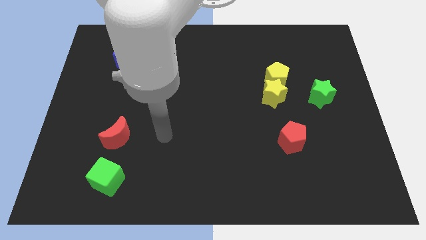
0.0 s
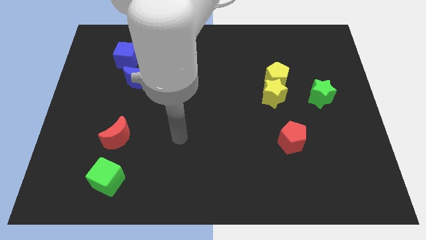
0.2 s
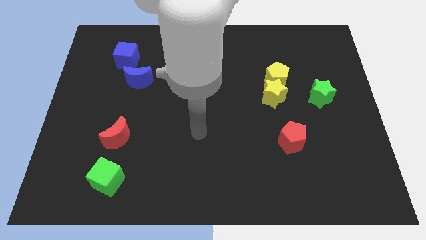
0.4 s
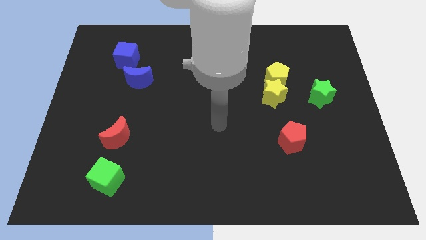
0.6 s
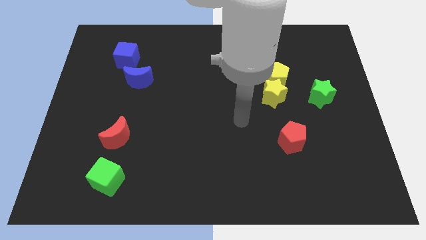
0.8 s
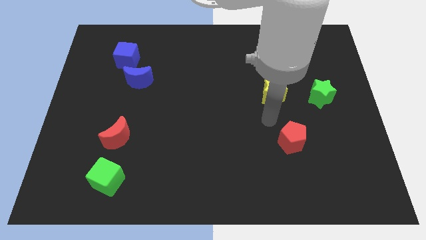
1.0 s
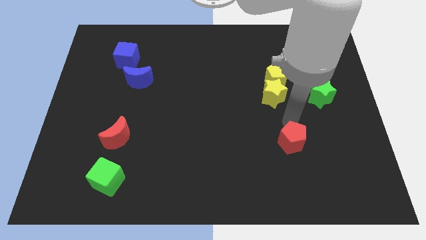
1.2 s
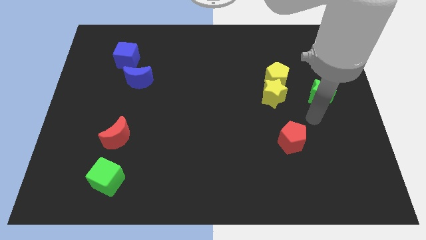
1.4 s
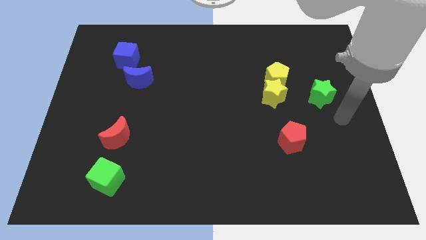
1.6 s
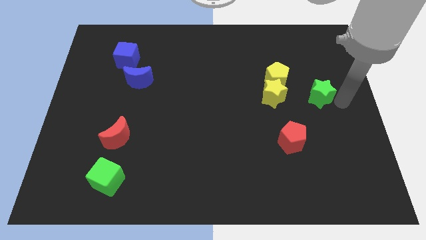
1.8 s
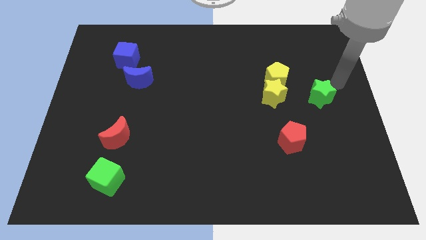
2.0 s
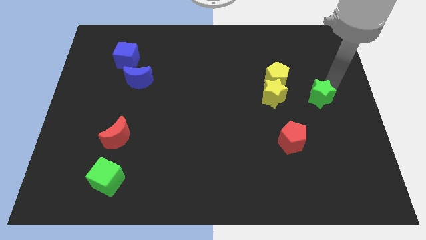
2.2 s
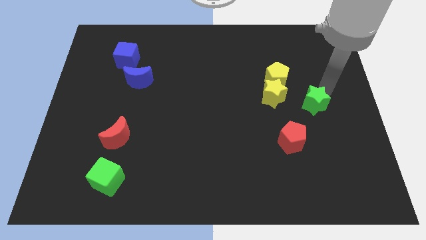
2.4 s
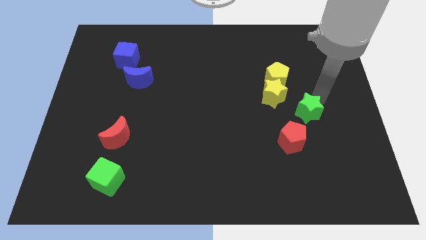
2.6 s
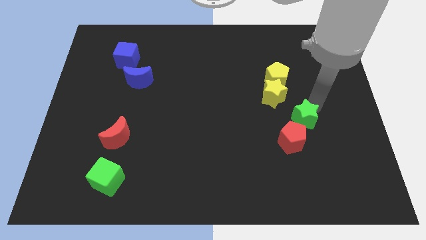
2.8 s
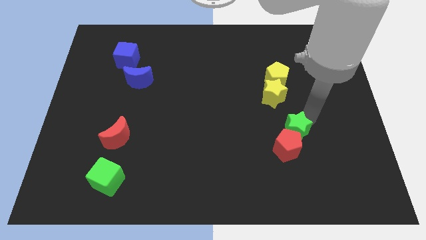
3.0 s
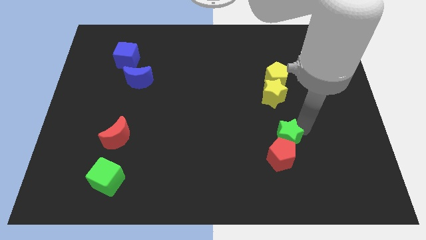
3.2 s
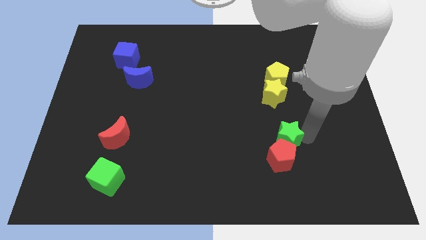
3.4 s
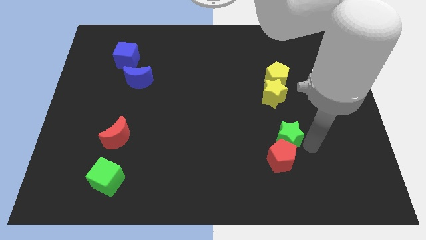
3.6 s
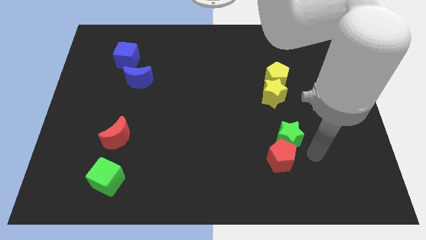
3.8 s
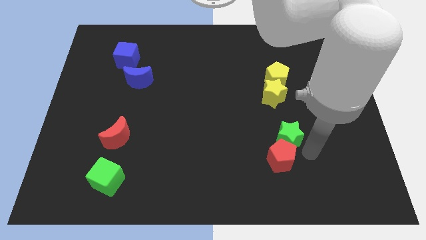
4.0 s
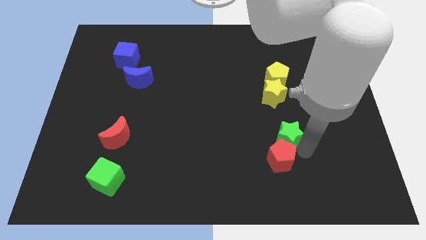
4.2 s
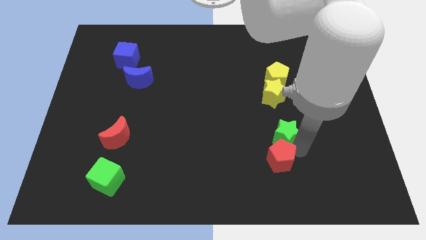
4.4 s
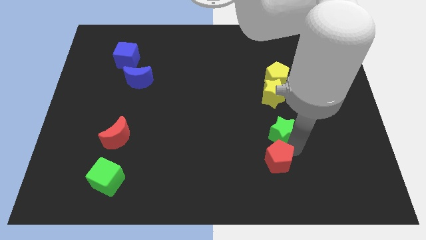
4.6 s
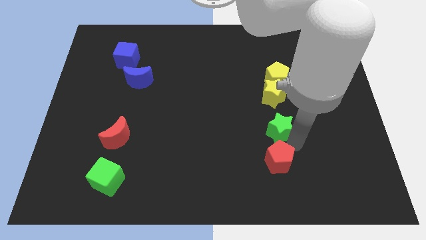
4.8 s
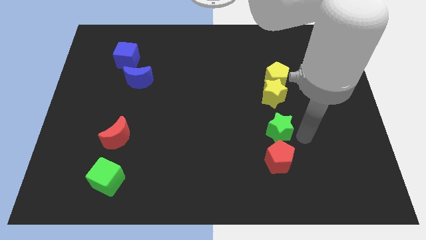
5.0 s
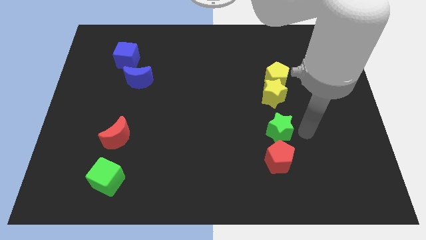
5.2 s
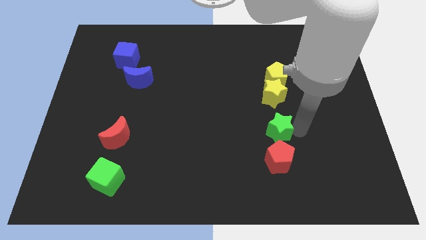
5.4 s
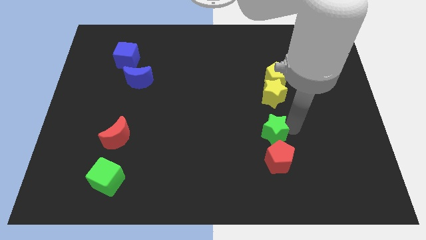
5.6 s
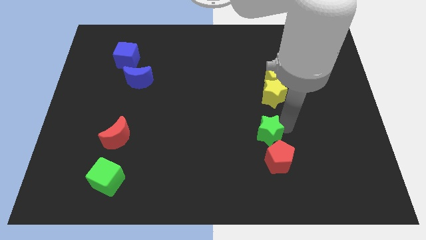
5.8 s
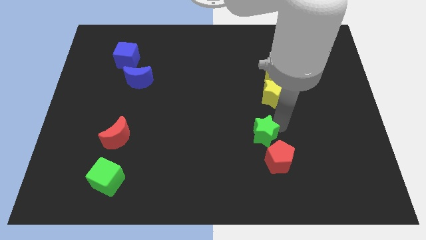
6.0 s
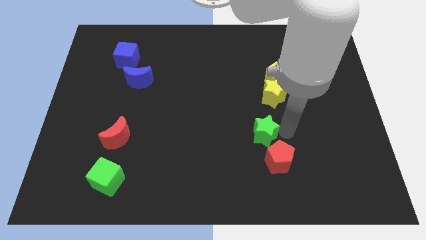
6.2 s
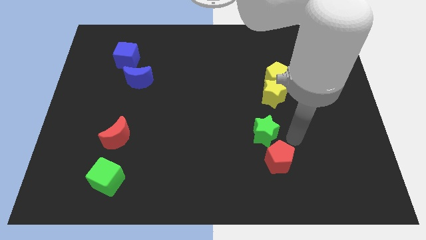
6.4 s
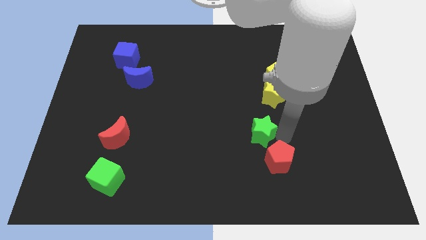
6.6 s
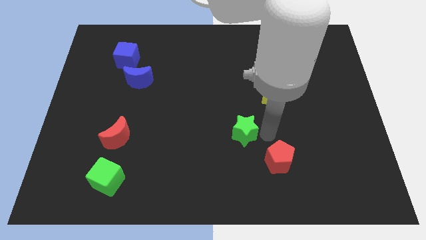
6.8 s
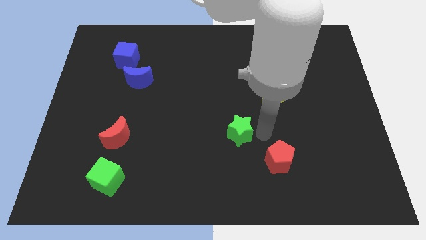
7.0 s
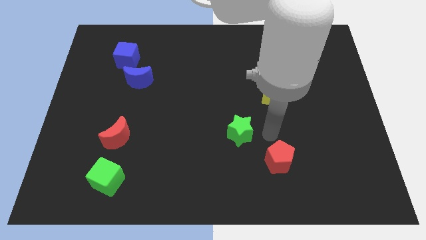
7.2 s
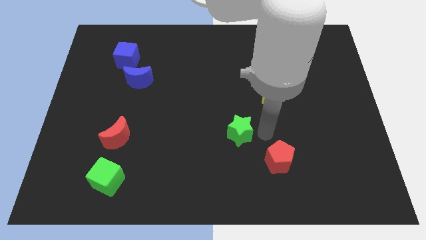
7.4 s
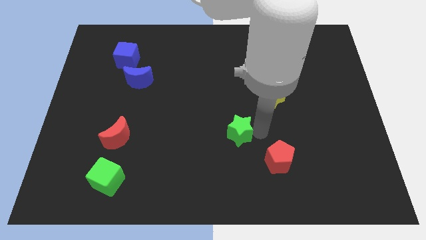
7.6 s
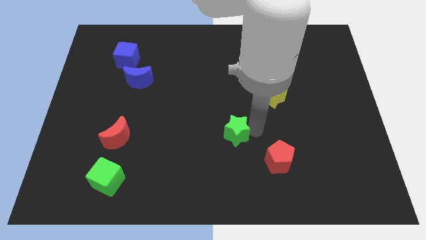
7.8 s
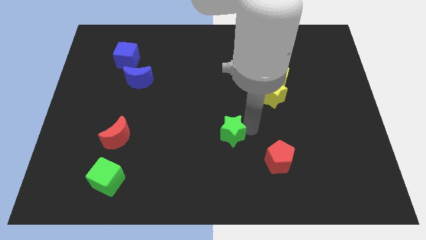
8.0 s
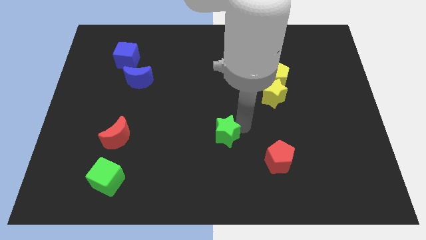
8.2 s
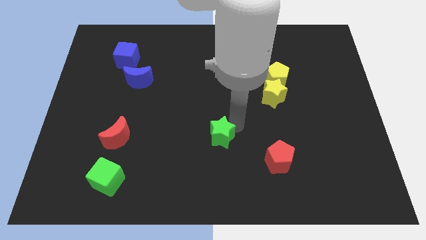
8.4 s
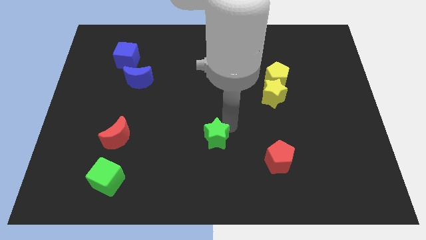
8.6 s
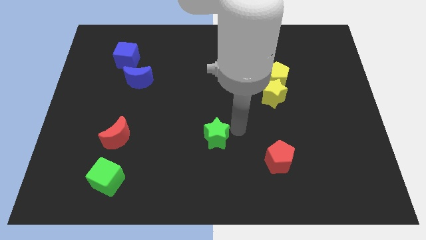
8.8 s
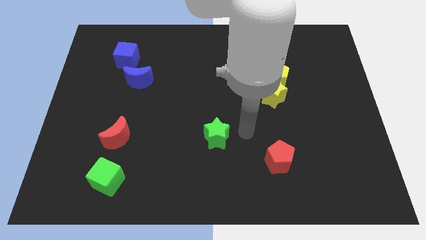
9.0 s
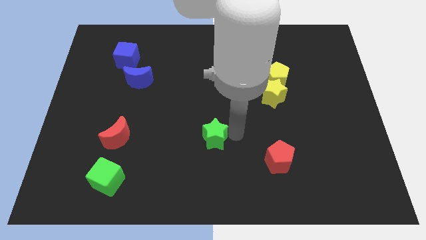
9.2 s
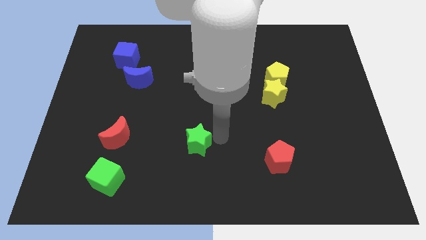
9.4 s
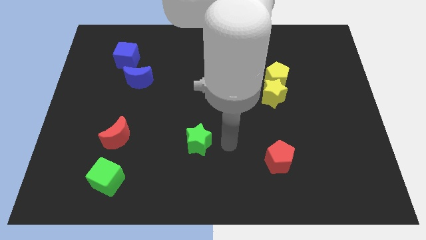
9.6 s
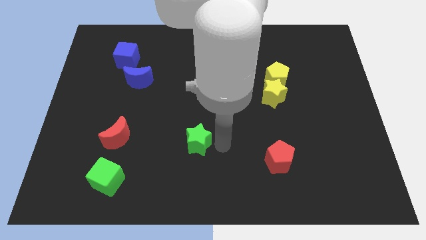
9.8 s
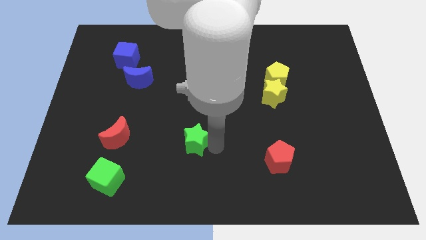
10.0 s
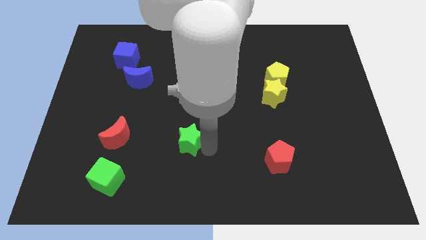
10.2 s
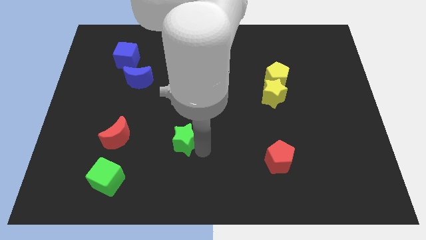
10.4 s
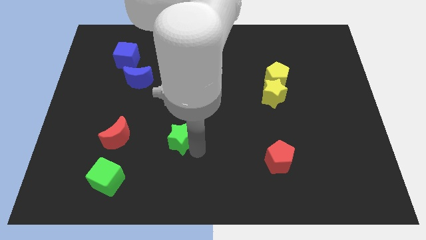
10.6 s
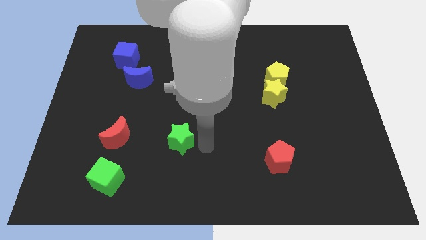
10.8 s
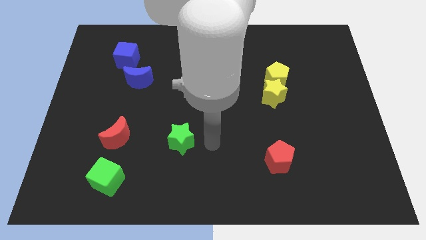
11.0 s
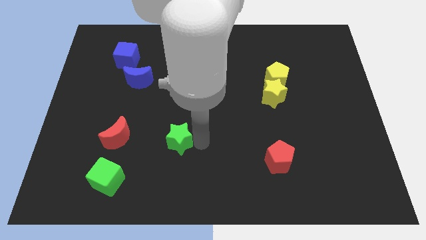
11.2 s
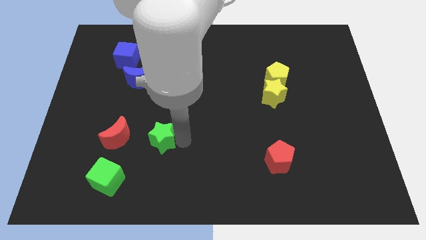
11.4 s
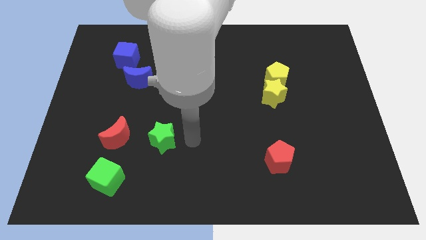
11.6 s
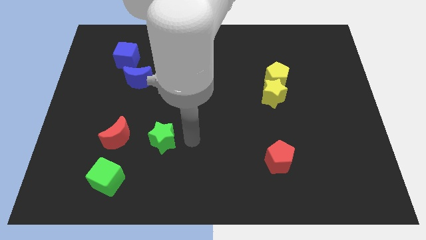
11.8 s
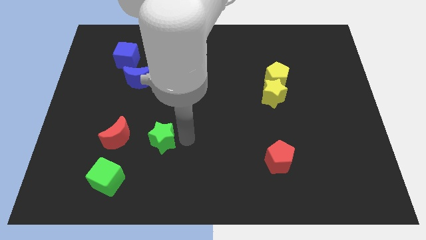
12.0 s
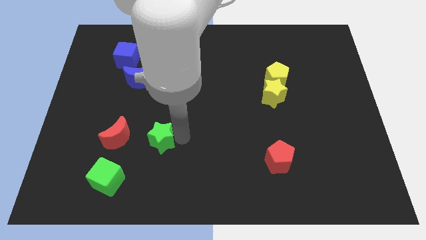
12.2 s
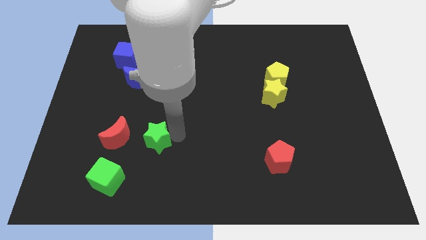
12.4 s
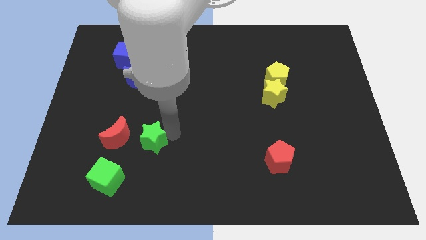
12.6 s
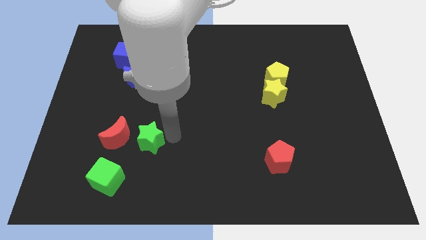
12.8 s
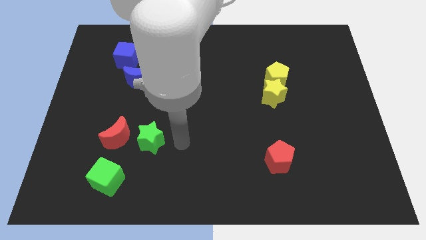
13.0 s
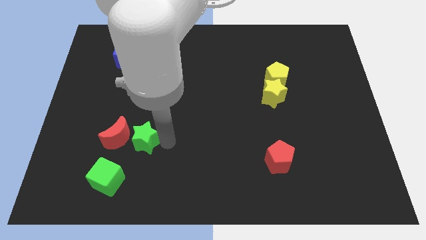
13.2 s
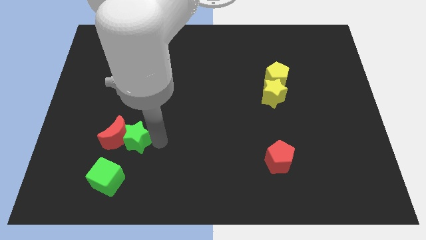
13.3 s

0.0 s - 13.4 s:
push the green star towards the red moon

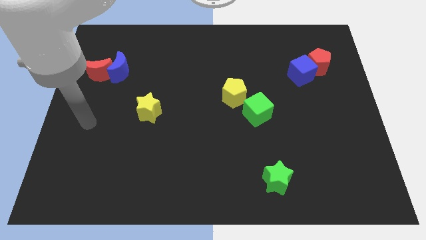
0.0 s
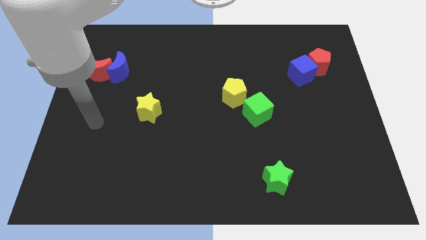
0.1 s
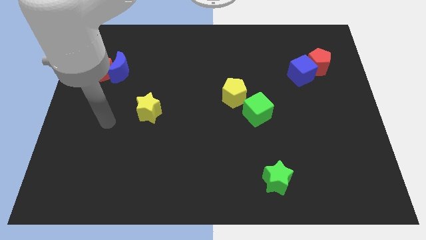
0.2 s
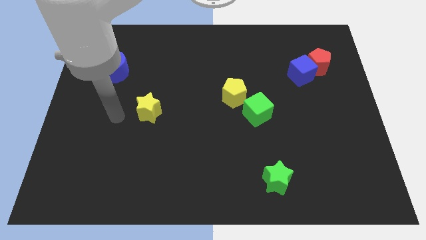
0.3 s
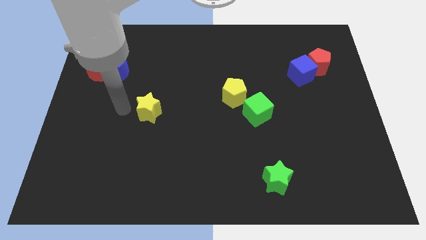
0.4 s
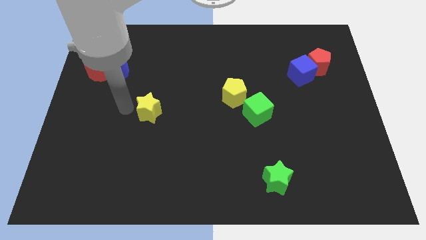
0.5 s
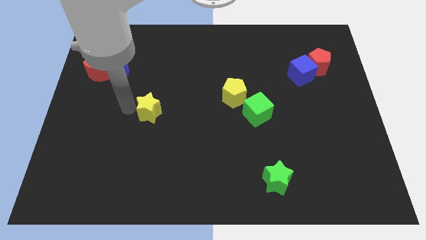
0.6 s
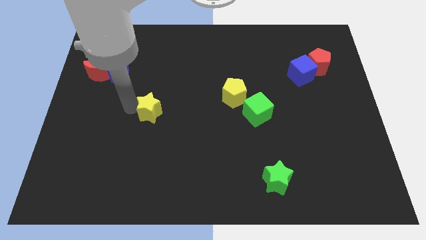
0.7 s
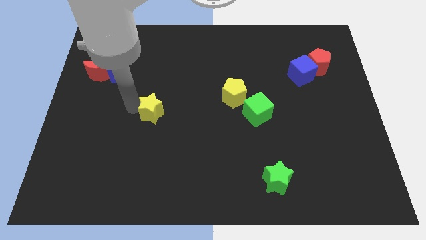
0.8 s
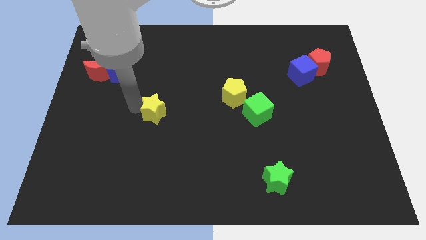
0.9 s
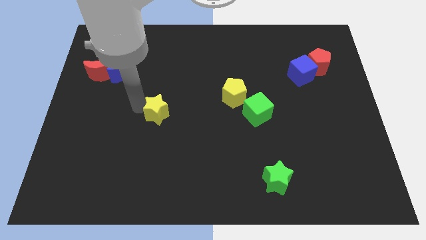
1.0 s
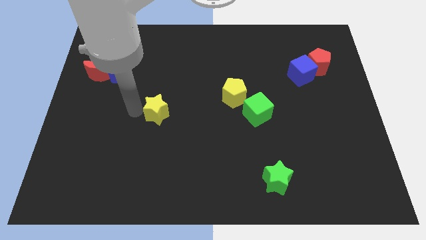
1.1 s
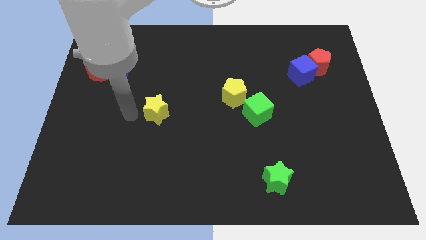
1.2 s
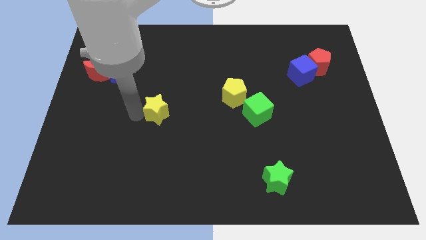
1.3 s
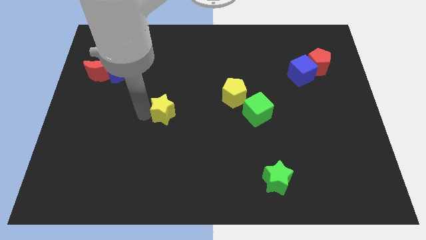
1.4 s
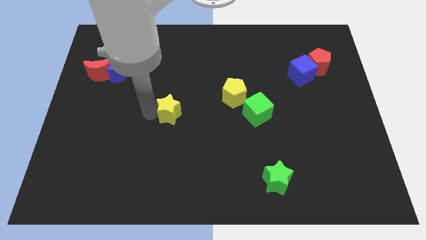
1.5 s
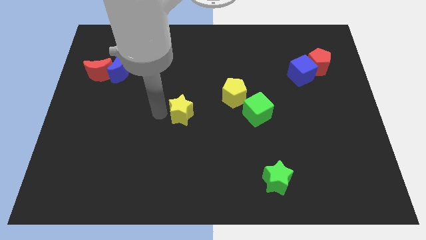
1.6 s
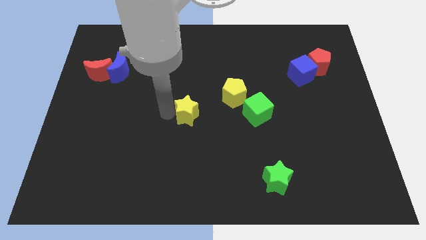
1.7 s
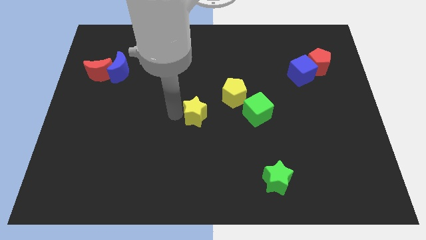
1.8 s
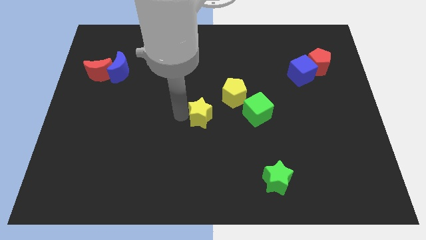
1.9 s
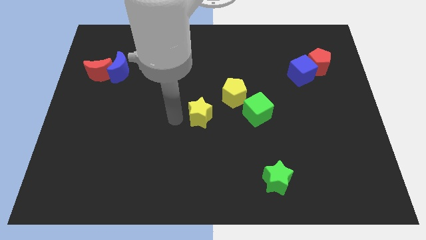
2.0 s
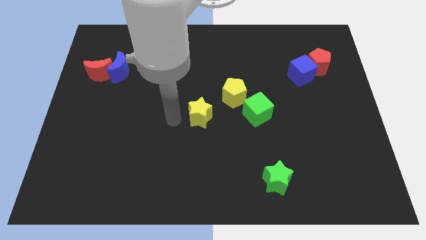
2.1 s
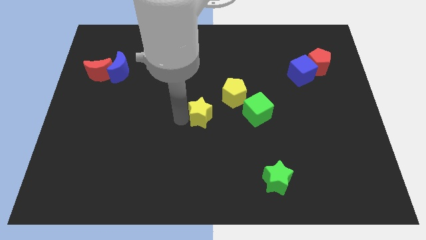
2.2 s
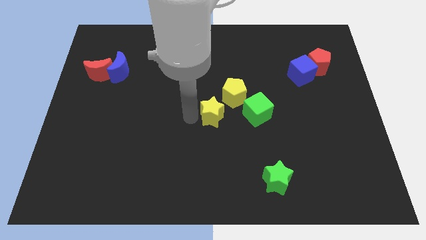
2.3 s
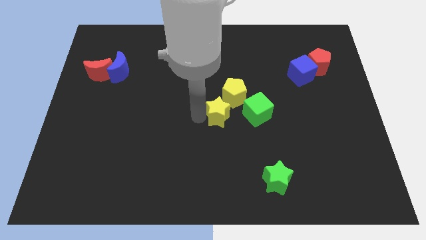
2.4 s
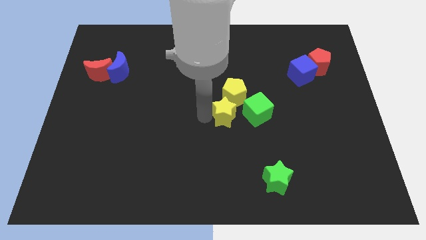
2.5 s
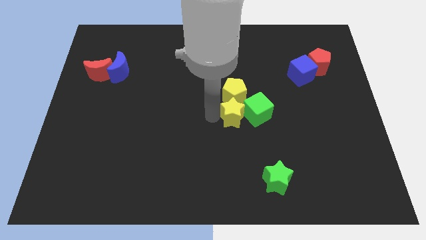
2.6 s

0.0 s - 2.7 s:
move the yellow star next to the green cube
